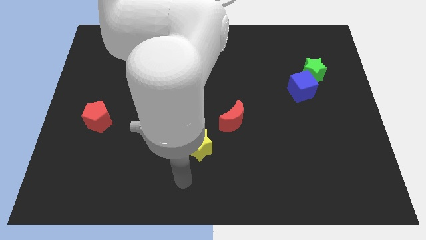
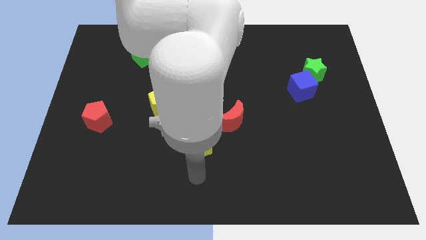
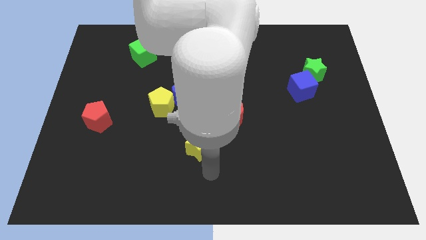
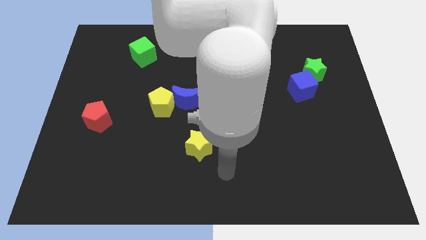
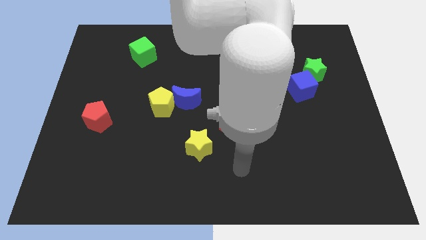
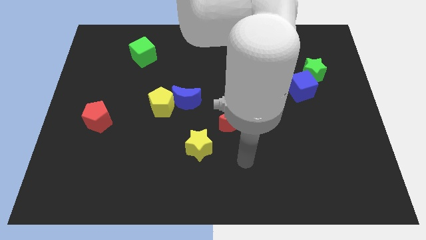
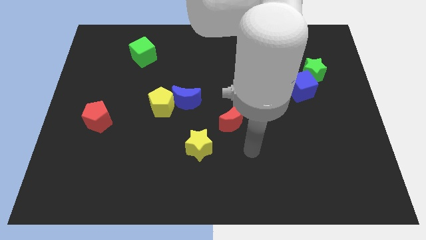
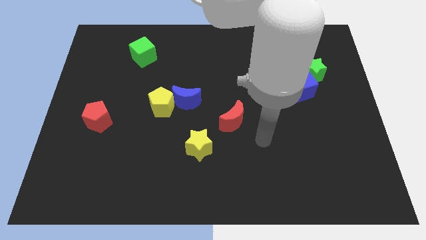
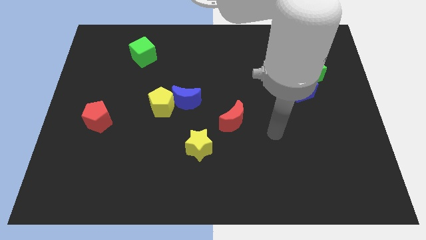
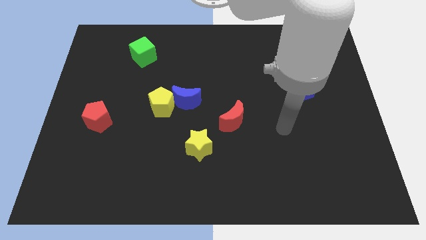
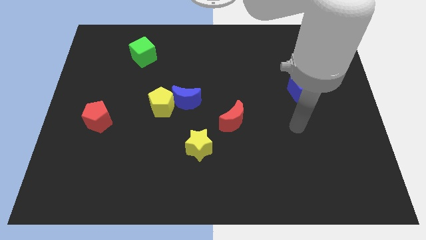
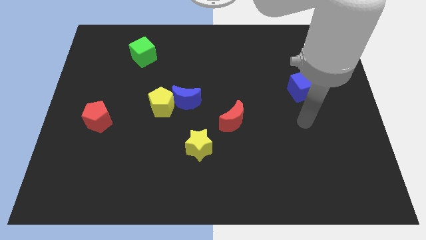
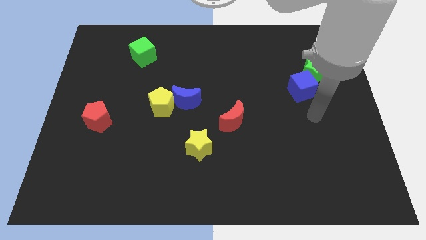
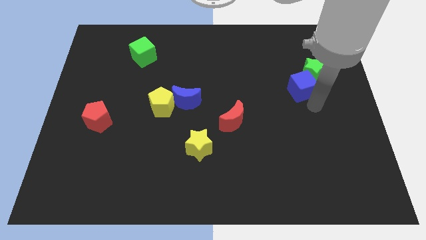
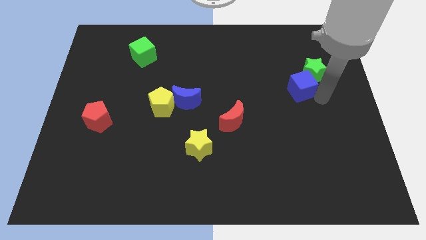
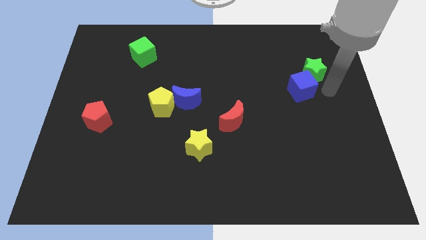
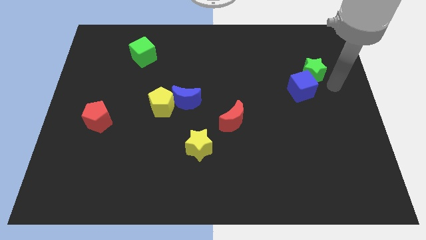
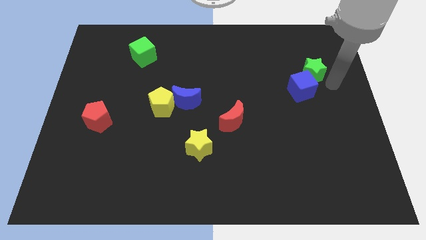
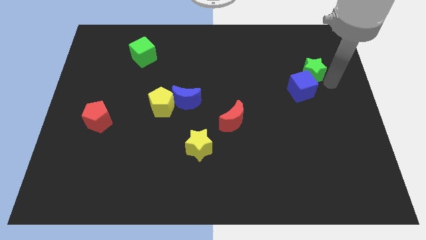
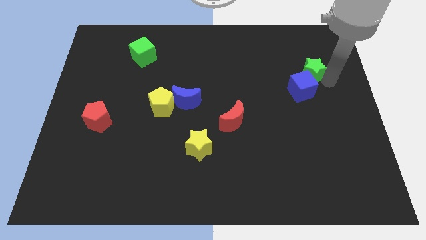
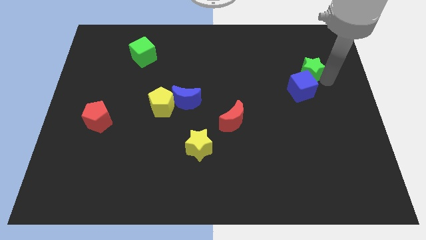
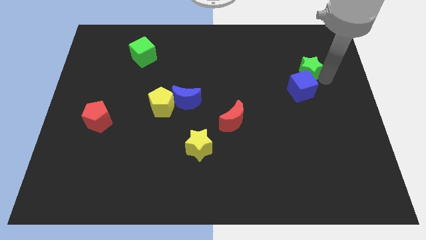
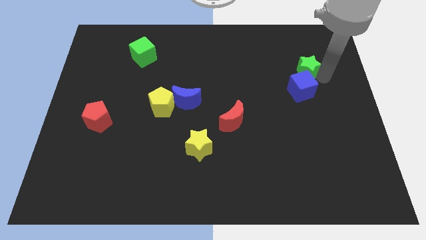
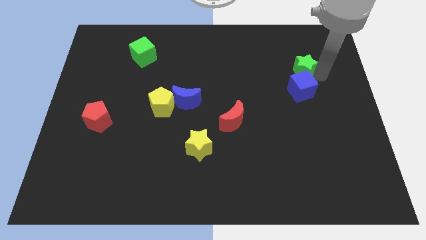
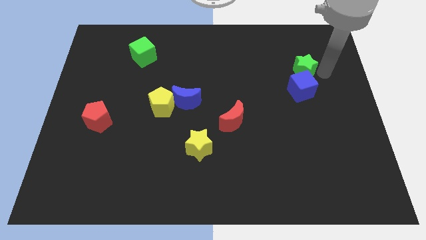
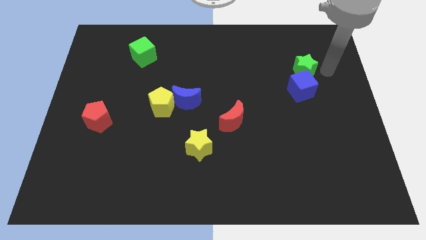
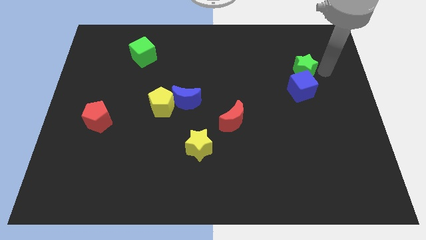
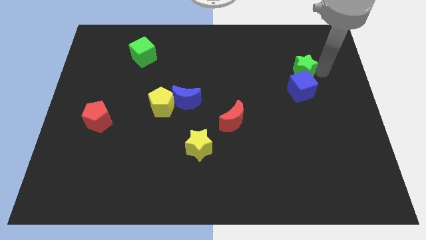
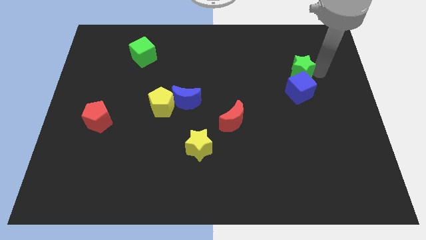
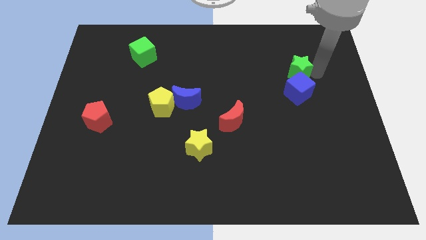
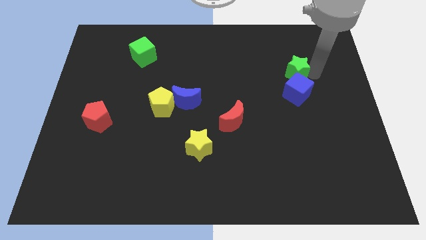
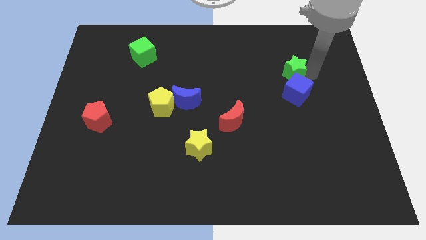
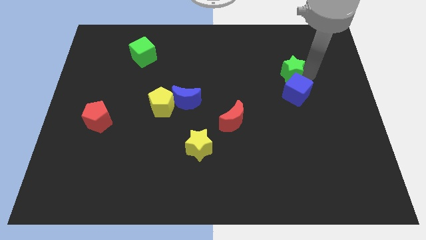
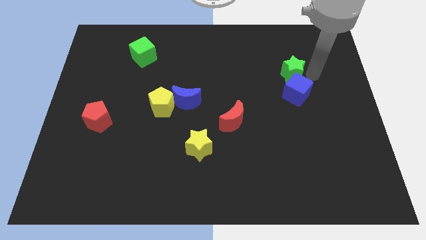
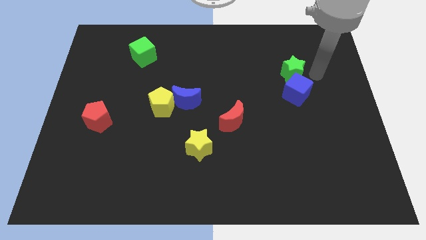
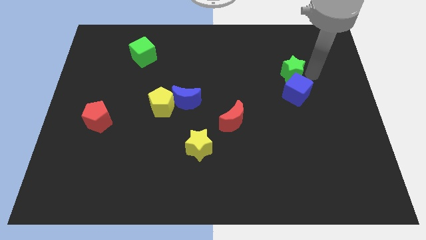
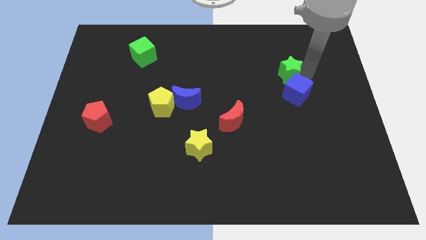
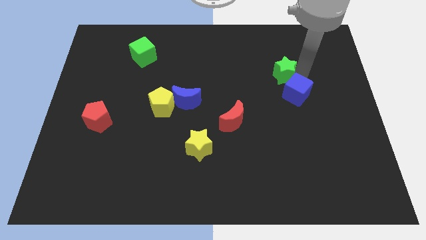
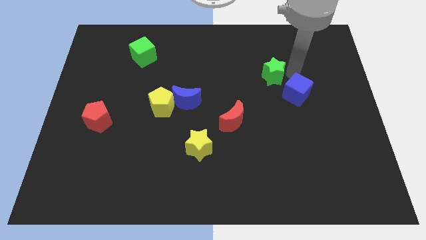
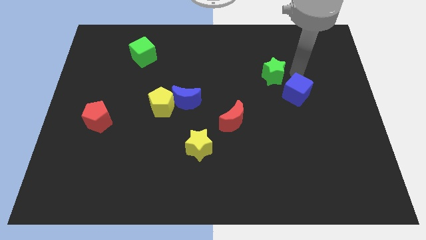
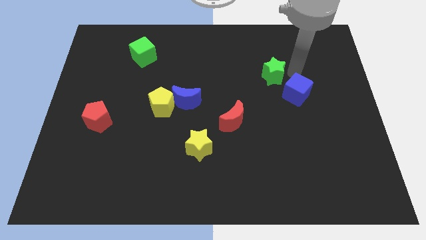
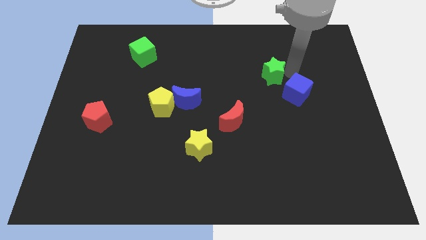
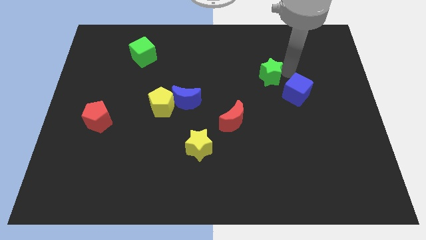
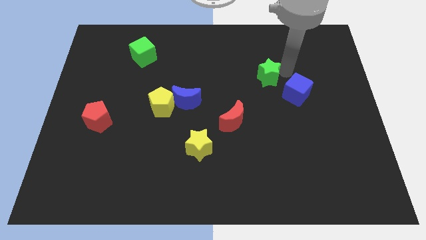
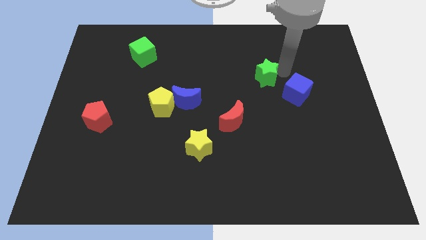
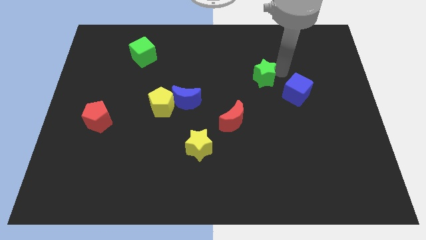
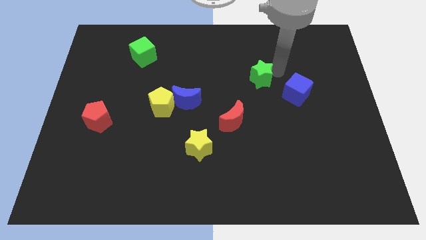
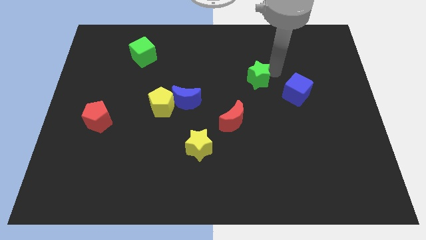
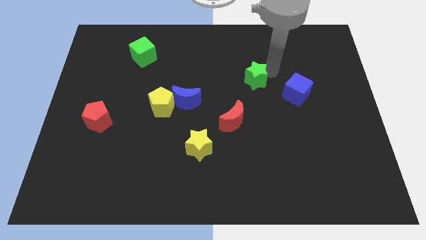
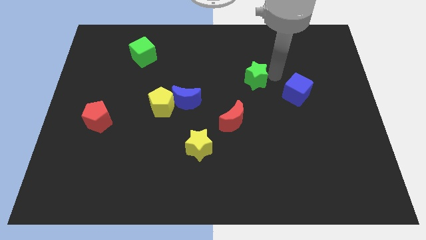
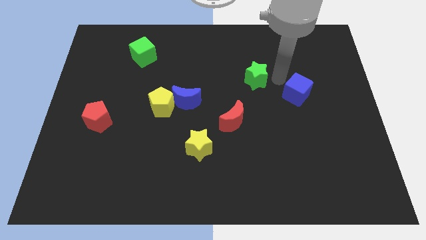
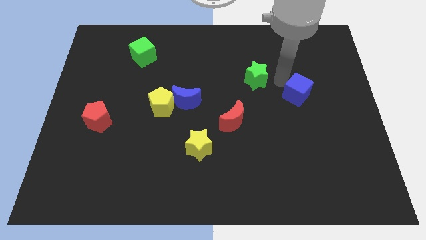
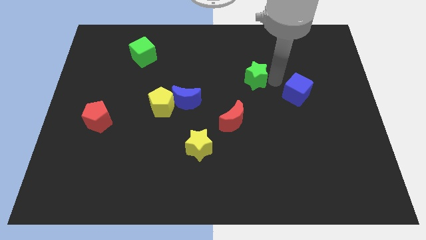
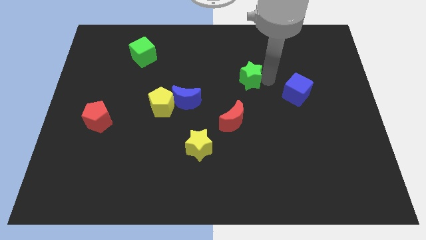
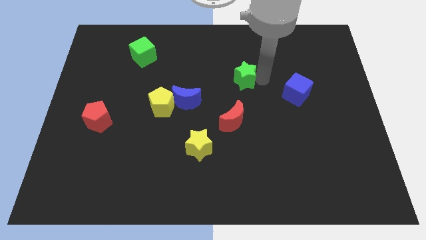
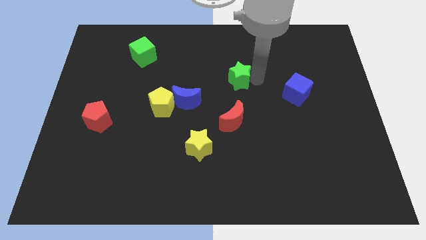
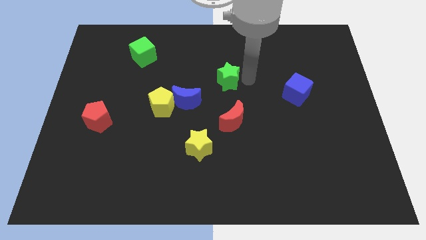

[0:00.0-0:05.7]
push the green star to the left

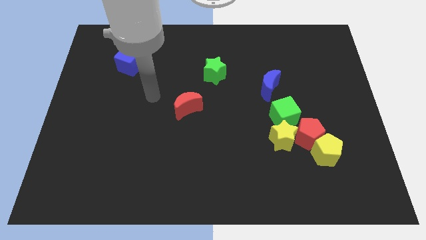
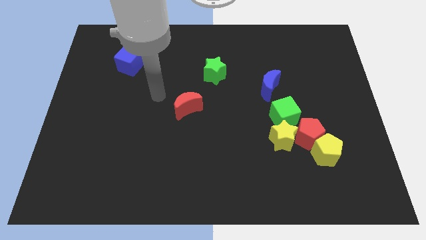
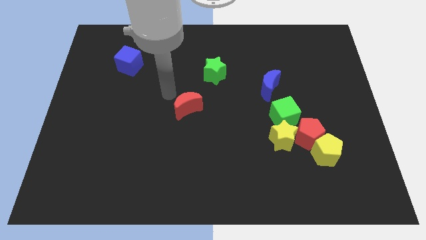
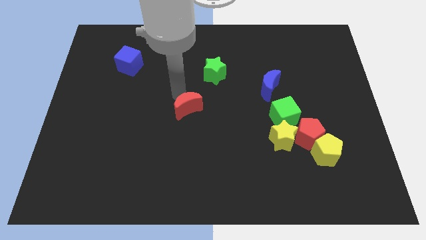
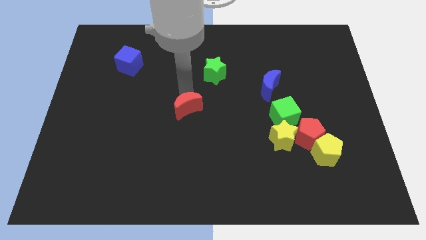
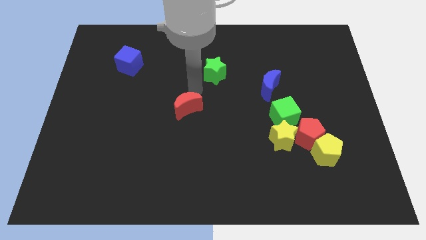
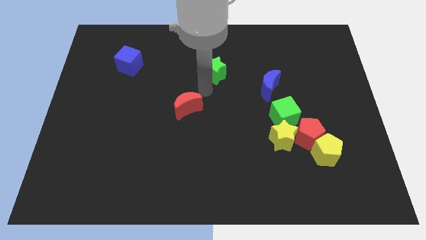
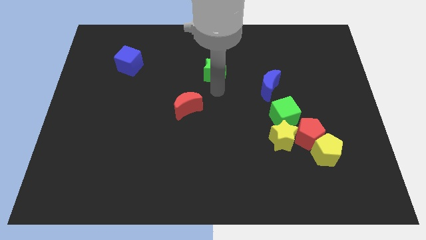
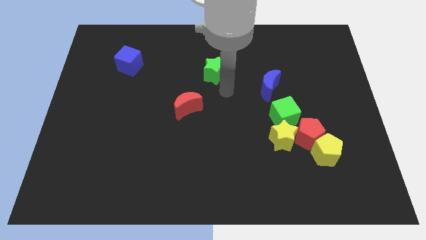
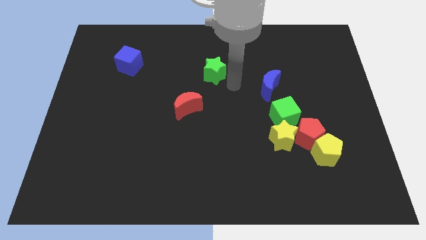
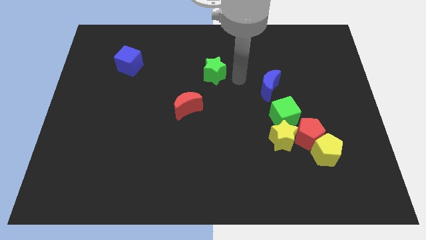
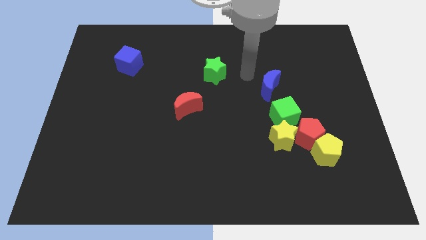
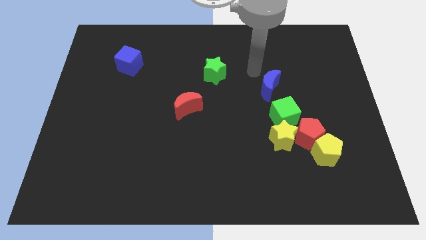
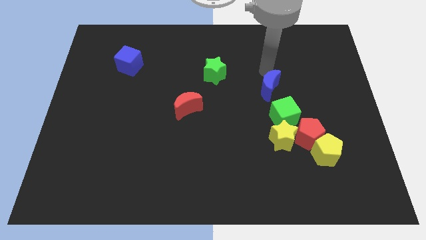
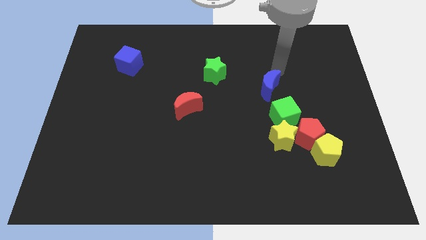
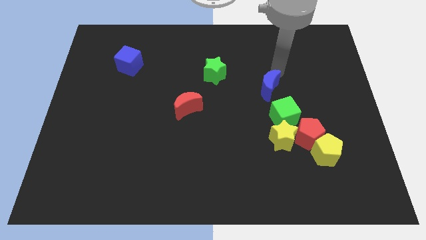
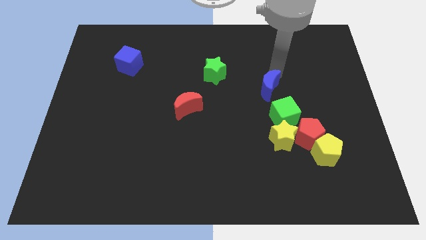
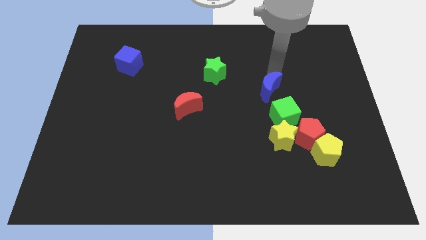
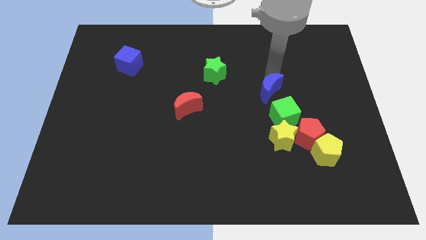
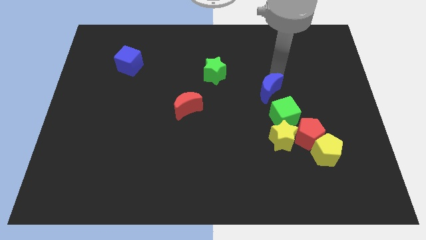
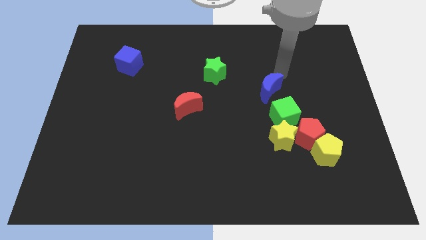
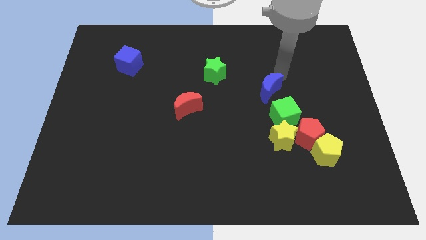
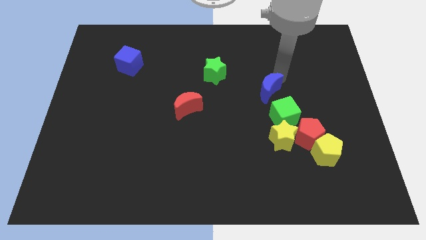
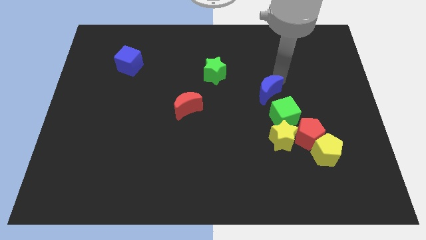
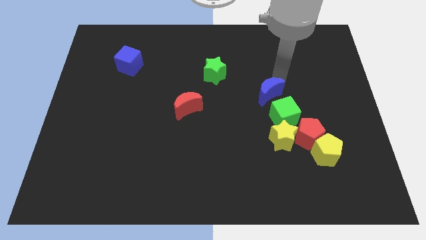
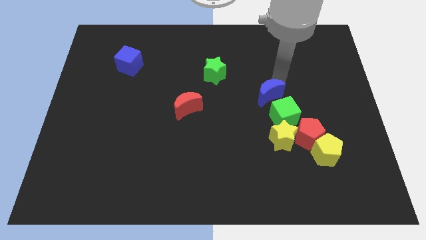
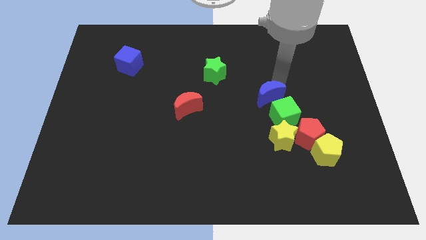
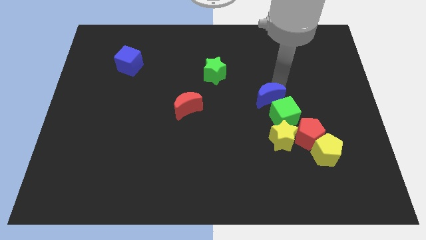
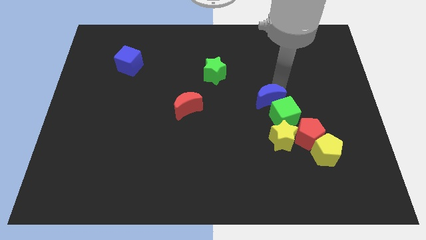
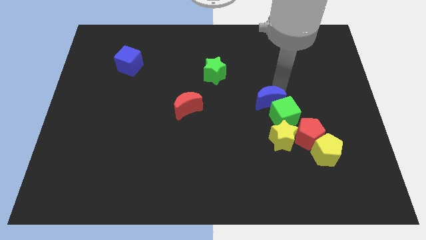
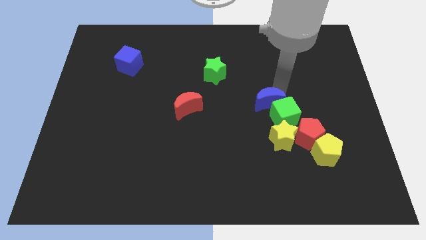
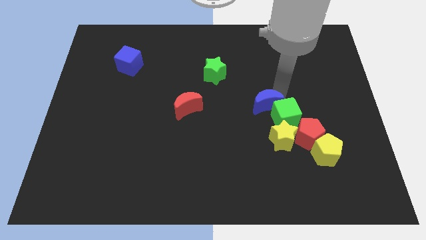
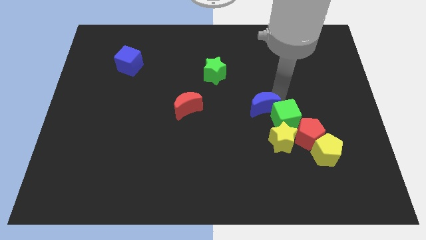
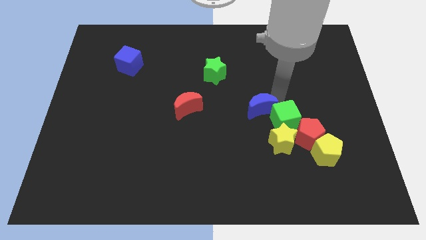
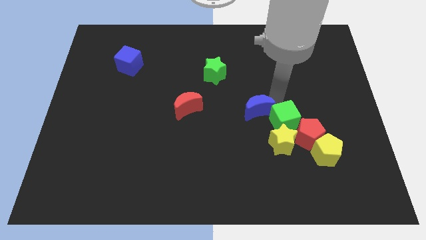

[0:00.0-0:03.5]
slightly move the blue moon diagonally downwards and to the left
